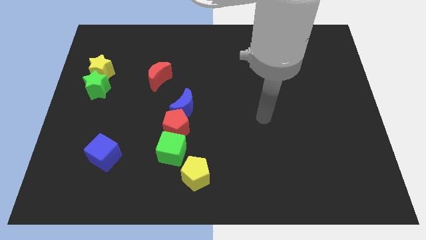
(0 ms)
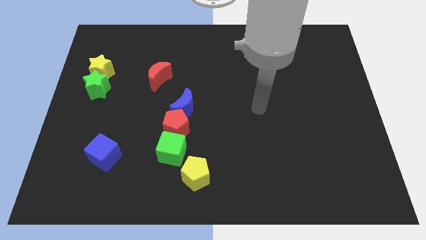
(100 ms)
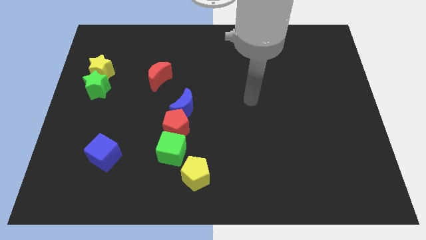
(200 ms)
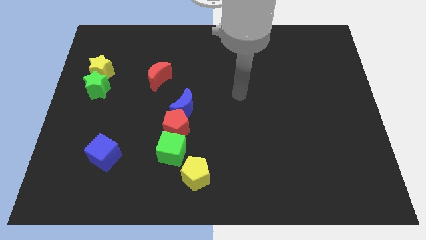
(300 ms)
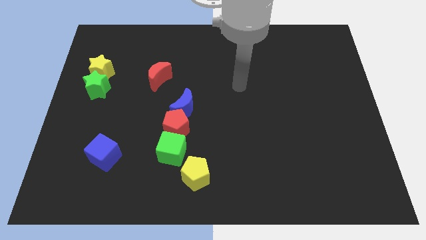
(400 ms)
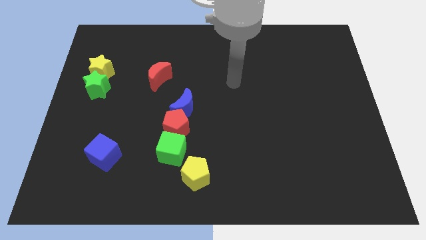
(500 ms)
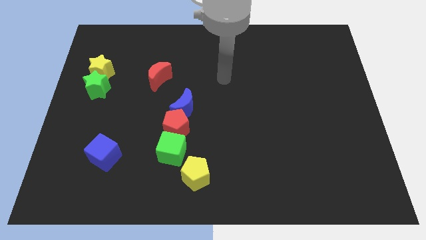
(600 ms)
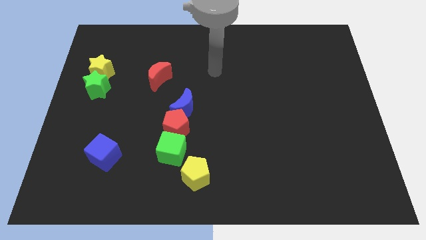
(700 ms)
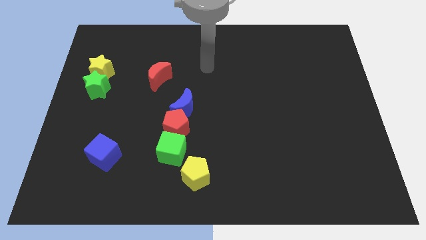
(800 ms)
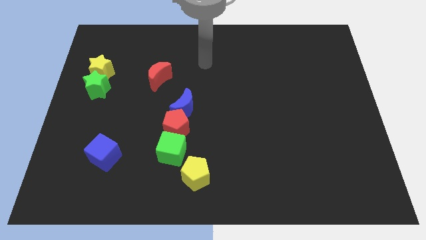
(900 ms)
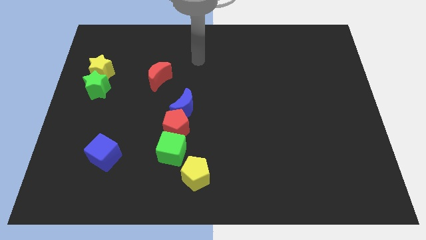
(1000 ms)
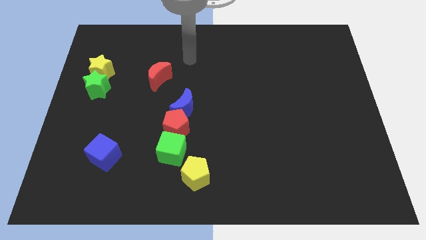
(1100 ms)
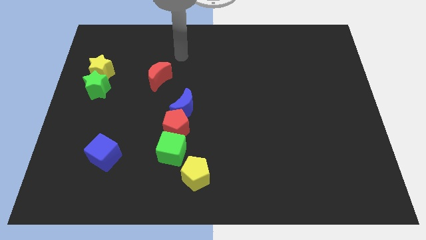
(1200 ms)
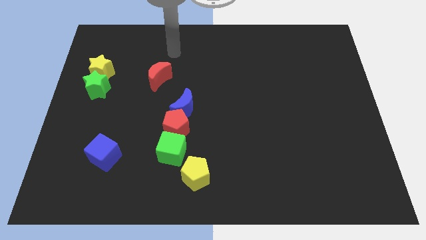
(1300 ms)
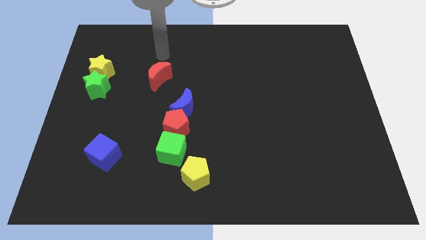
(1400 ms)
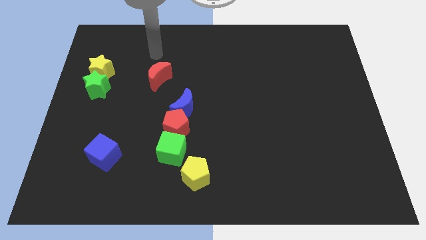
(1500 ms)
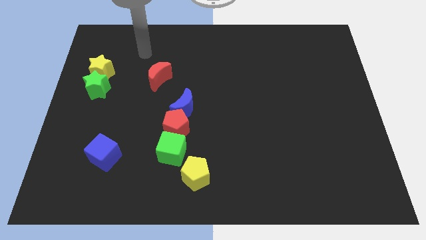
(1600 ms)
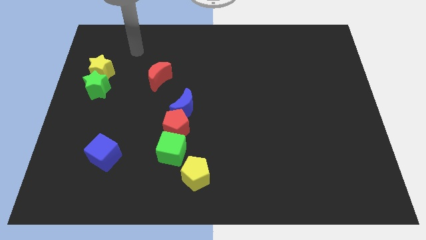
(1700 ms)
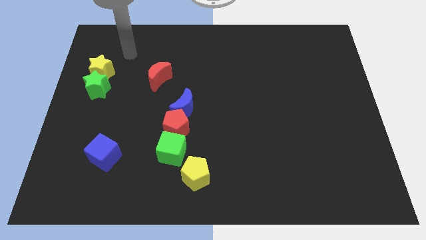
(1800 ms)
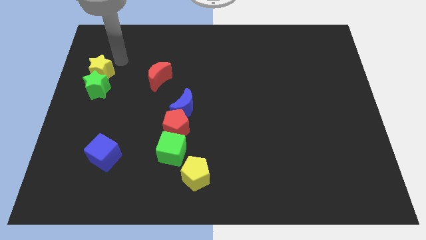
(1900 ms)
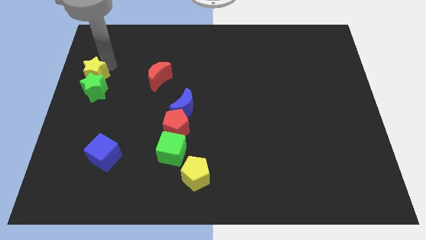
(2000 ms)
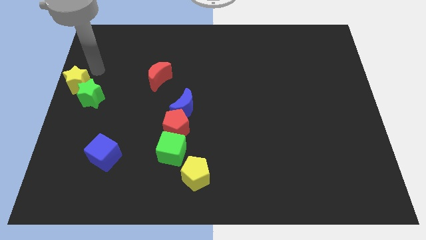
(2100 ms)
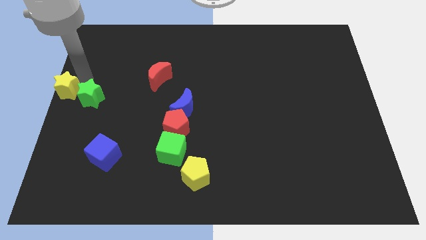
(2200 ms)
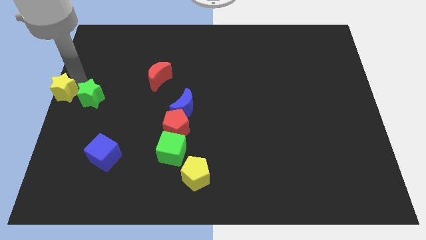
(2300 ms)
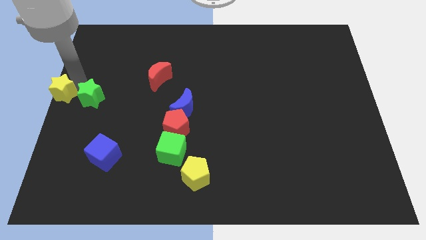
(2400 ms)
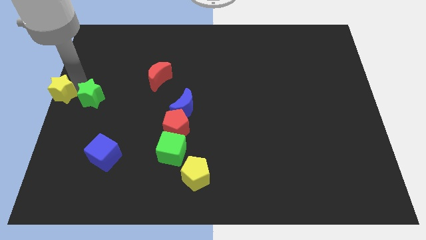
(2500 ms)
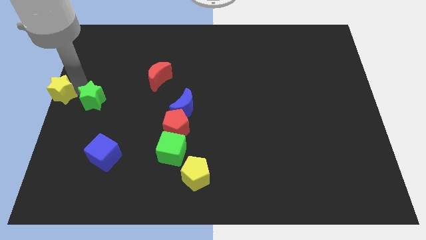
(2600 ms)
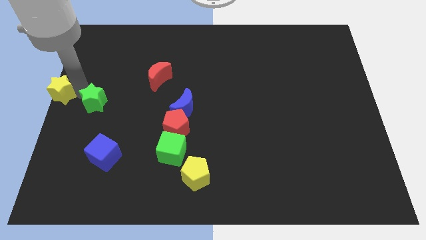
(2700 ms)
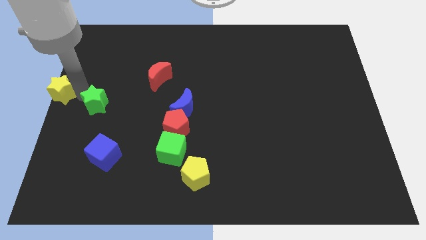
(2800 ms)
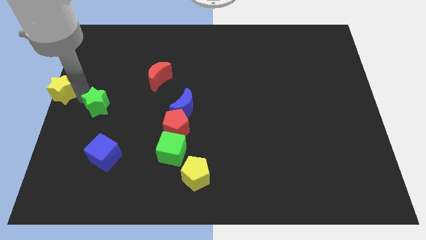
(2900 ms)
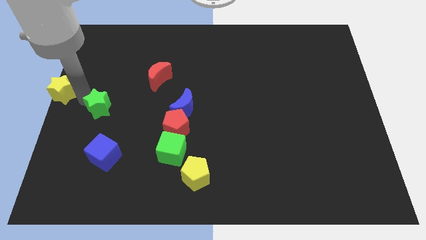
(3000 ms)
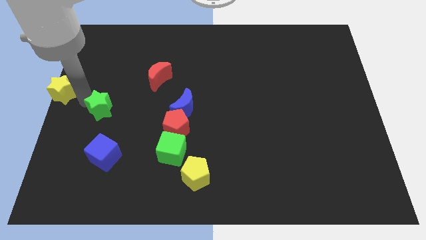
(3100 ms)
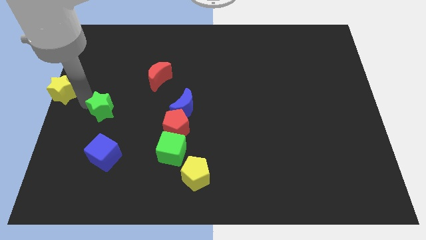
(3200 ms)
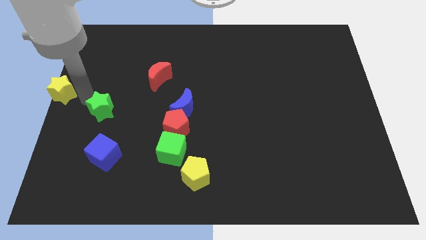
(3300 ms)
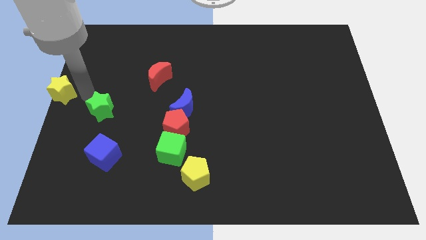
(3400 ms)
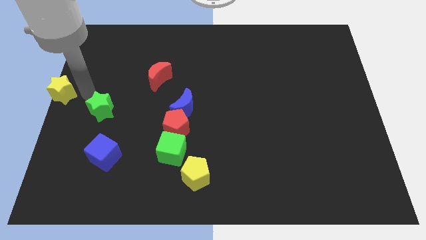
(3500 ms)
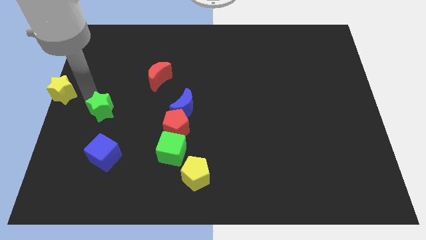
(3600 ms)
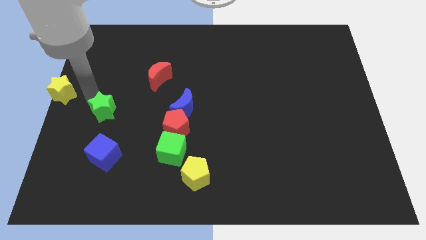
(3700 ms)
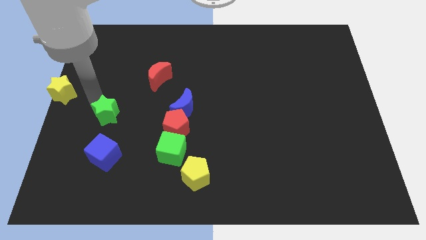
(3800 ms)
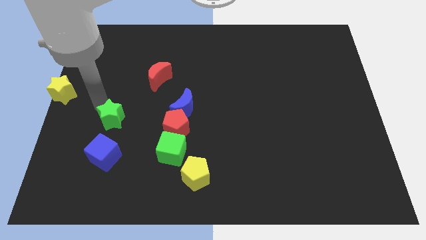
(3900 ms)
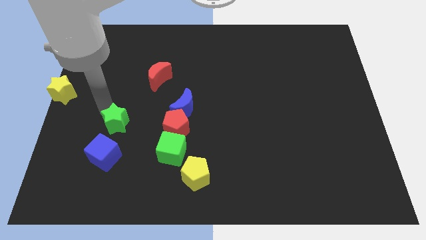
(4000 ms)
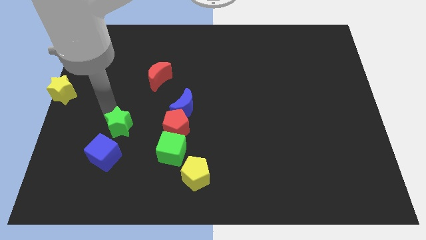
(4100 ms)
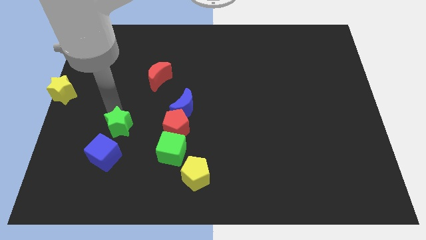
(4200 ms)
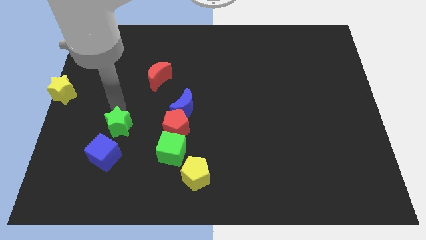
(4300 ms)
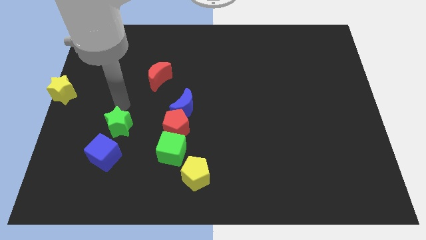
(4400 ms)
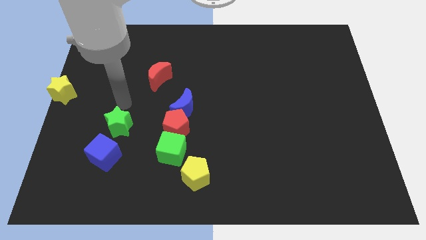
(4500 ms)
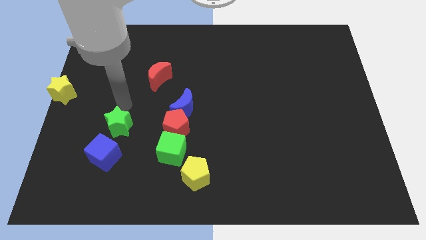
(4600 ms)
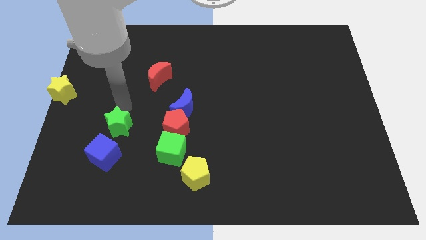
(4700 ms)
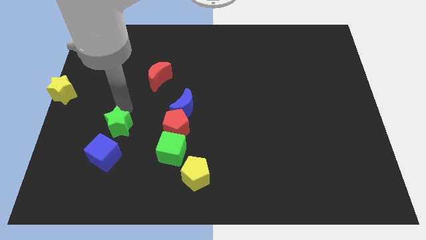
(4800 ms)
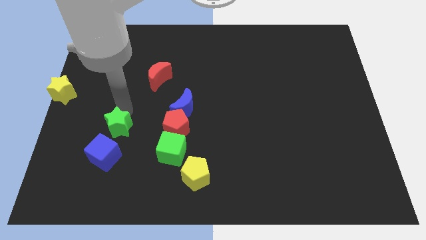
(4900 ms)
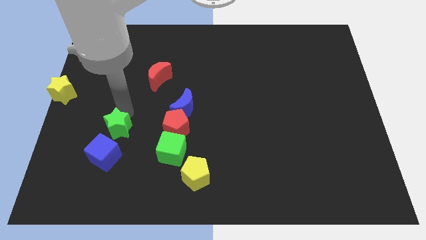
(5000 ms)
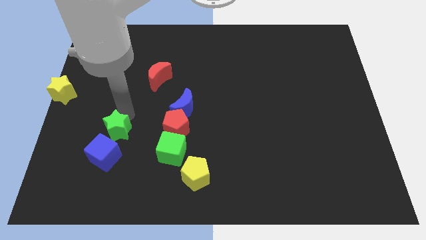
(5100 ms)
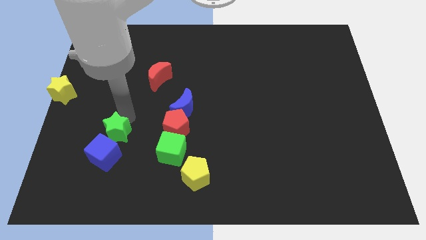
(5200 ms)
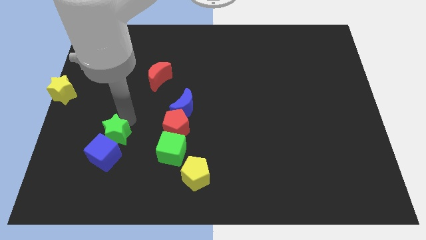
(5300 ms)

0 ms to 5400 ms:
move the green star left of the green cube

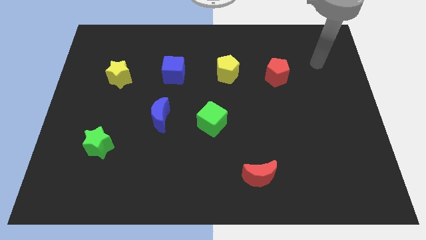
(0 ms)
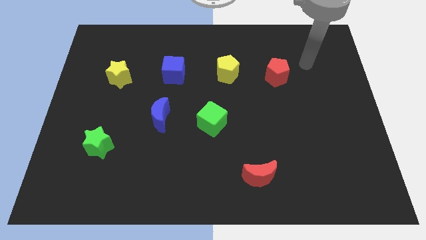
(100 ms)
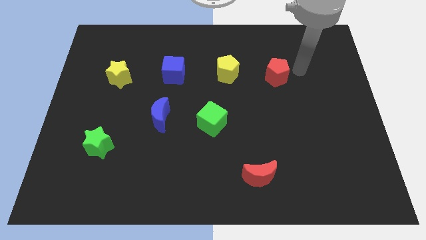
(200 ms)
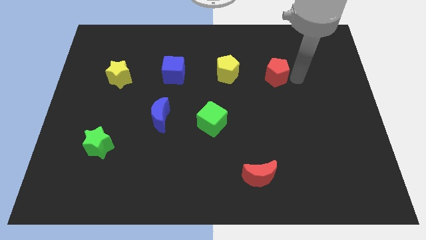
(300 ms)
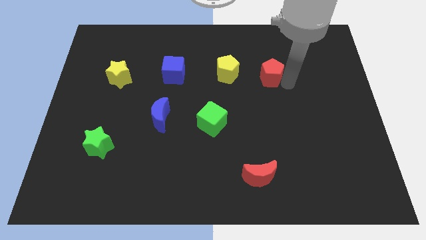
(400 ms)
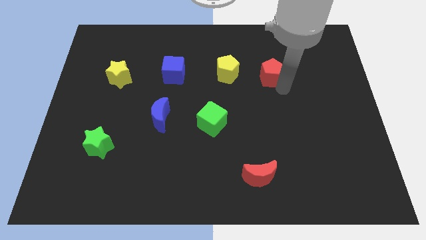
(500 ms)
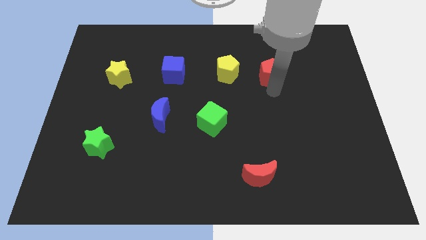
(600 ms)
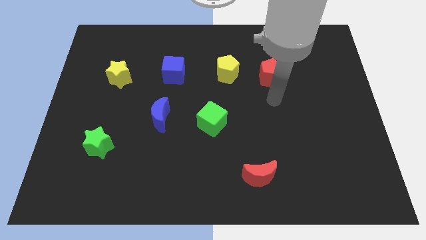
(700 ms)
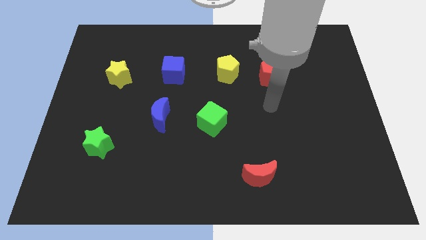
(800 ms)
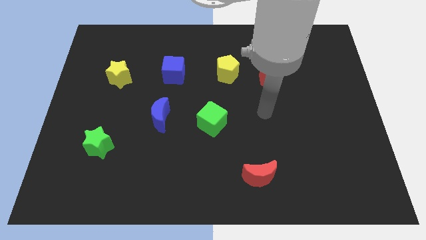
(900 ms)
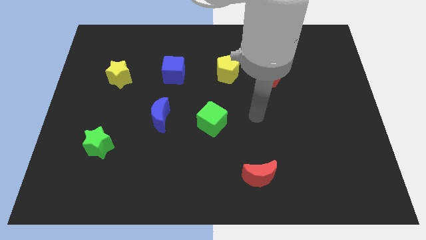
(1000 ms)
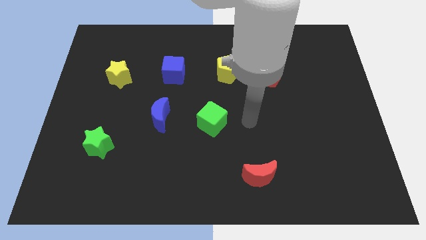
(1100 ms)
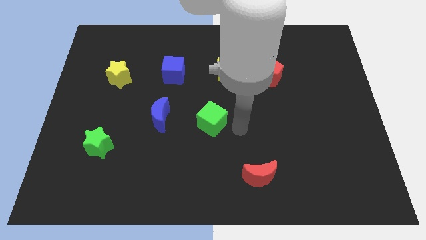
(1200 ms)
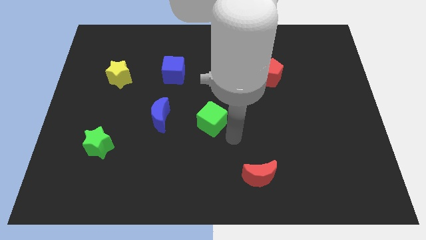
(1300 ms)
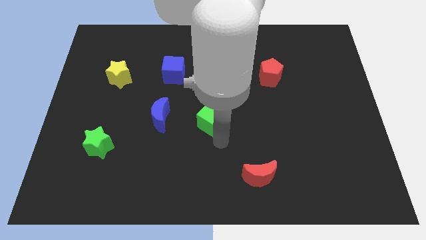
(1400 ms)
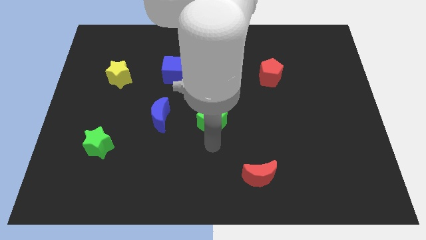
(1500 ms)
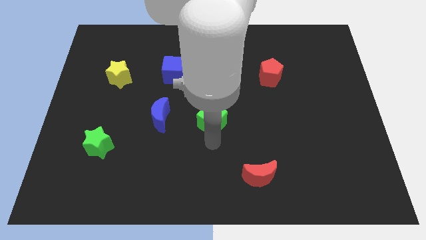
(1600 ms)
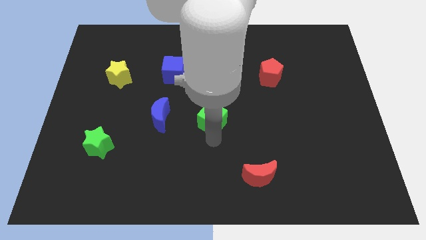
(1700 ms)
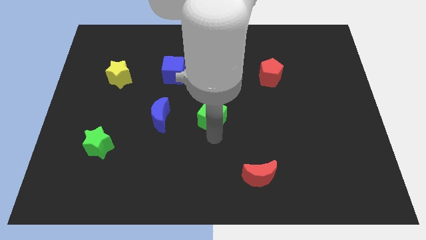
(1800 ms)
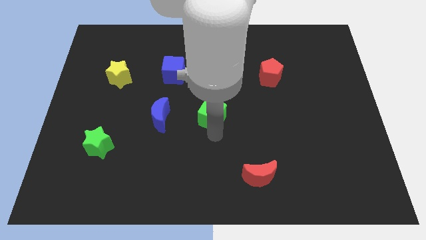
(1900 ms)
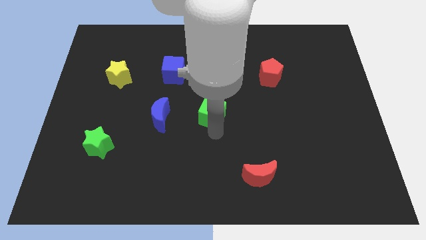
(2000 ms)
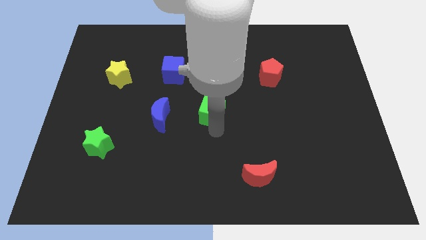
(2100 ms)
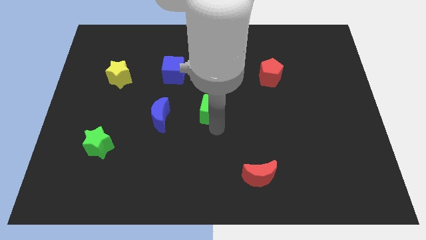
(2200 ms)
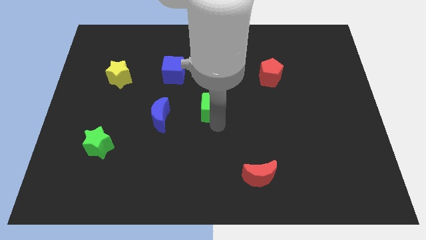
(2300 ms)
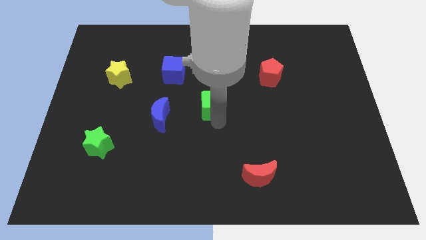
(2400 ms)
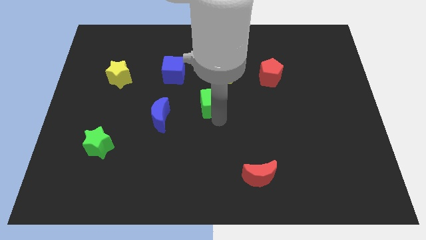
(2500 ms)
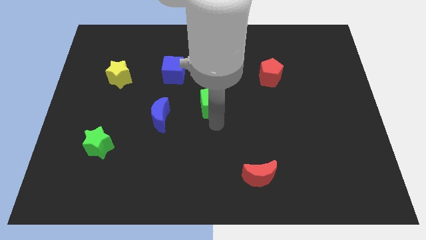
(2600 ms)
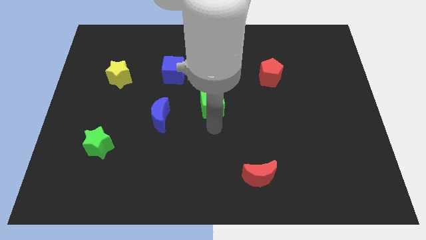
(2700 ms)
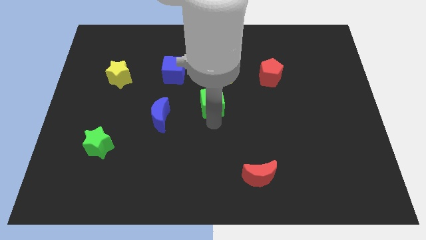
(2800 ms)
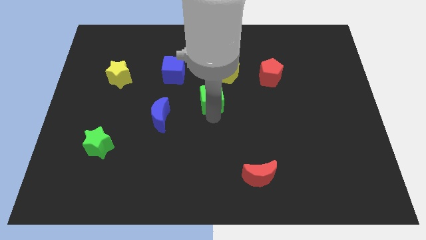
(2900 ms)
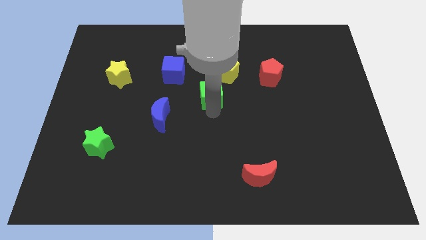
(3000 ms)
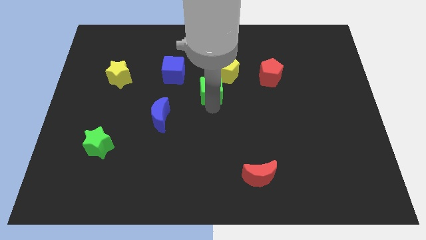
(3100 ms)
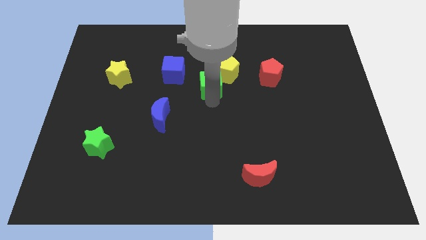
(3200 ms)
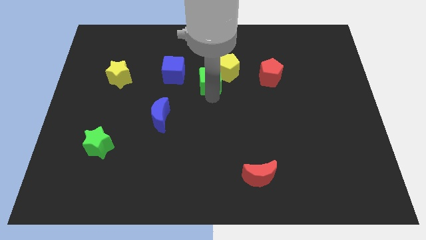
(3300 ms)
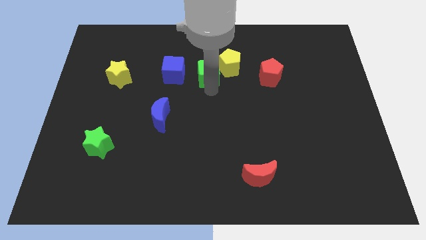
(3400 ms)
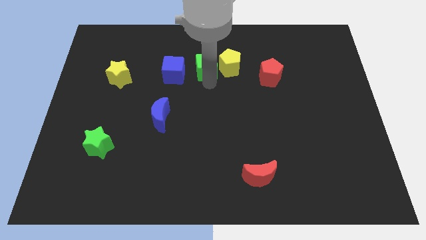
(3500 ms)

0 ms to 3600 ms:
move the green cube to the top left of the yellow pentagon
